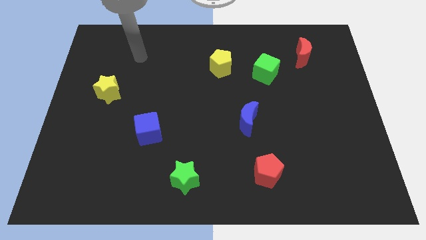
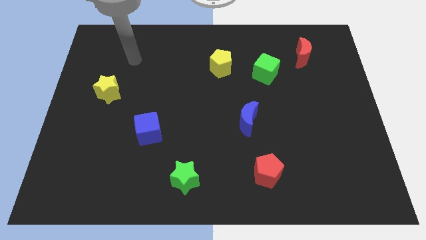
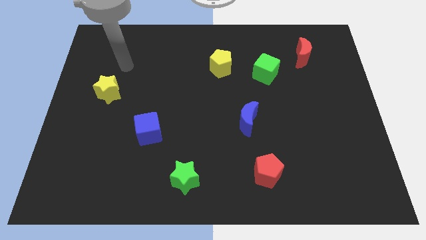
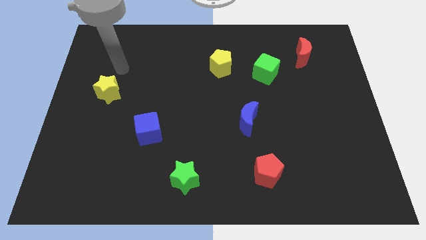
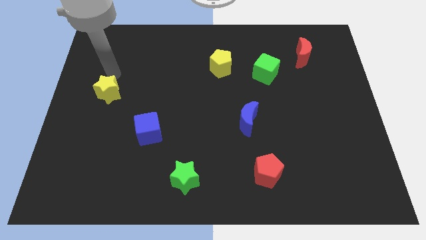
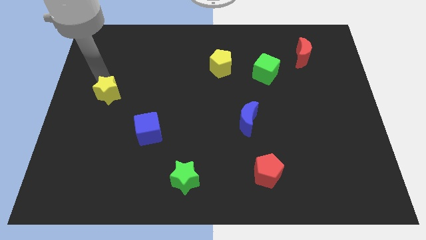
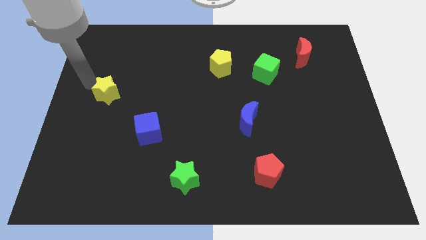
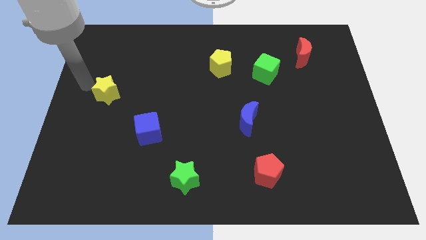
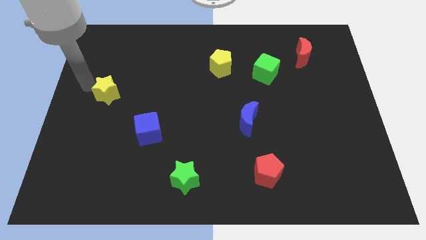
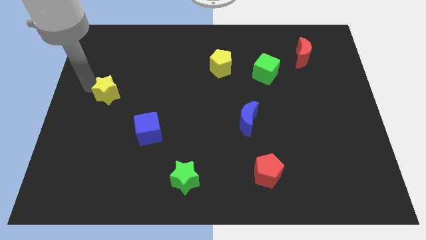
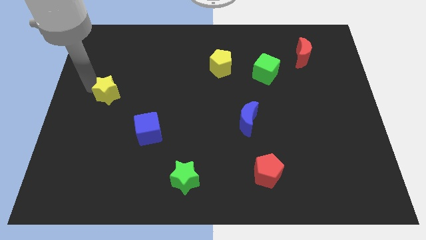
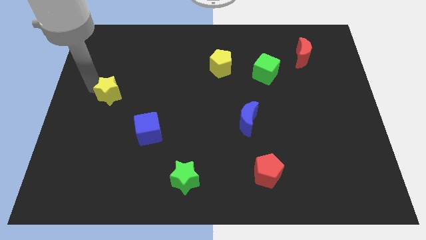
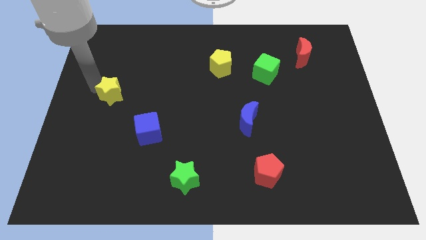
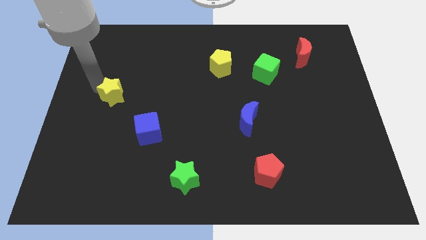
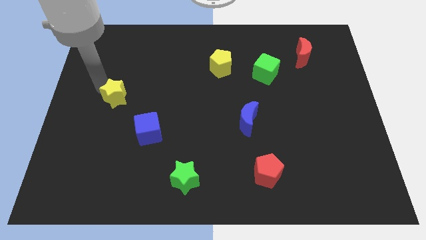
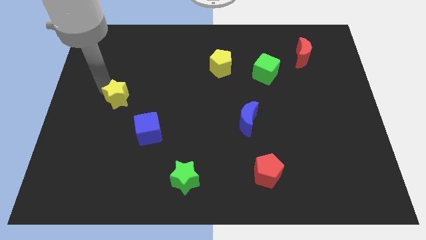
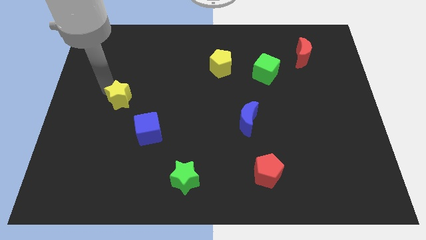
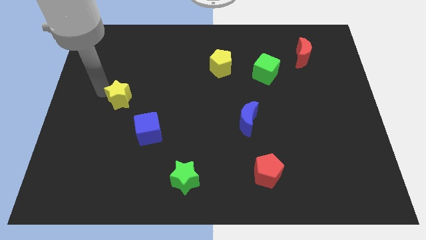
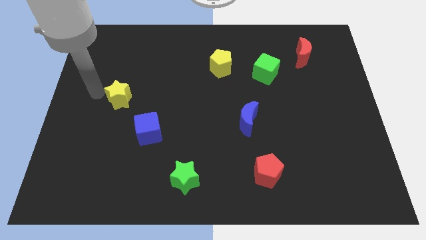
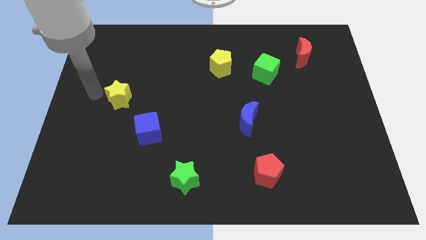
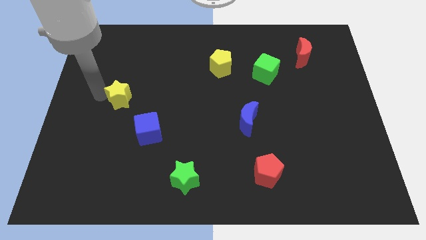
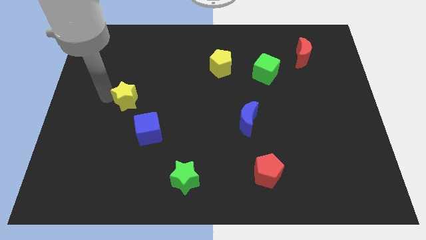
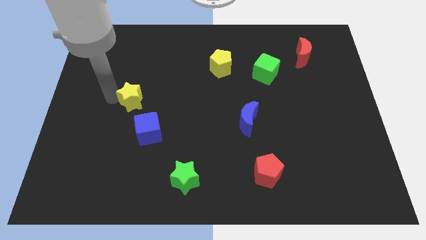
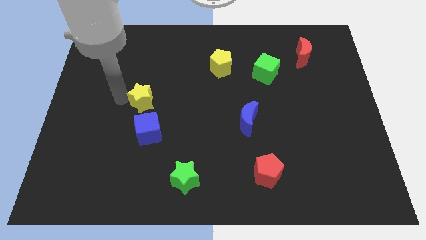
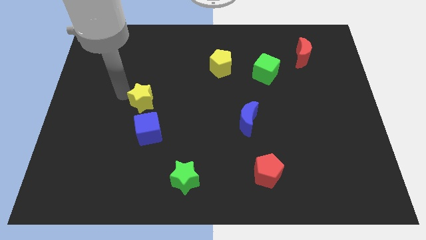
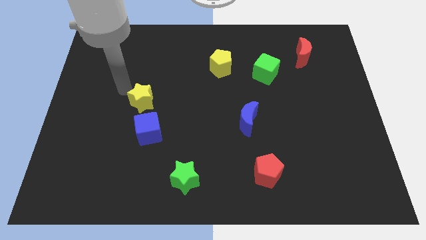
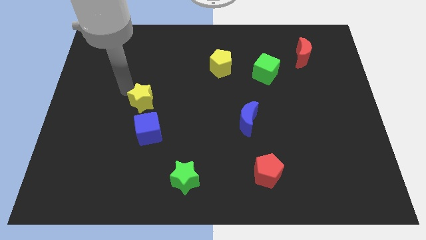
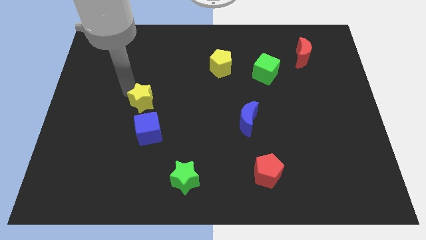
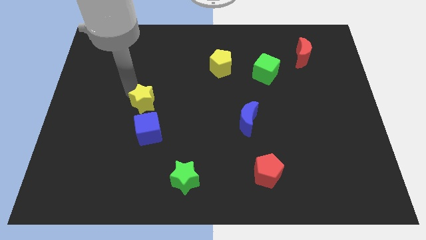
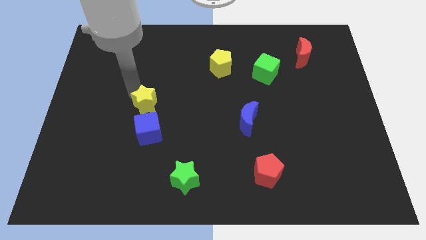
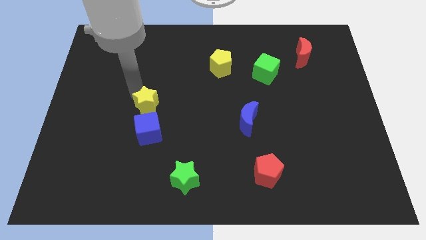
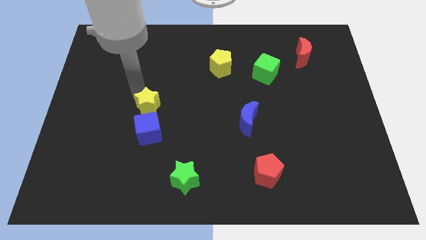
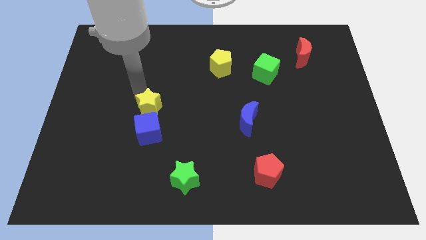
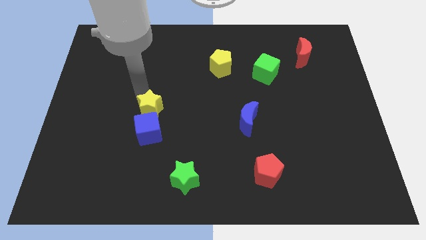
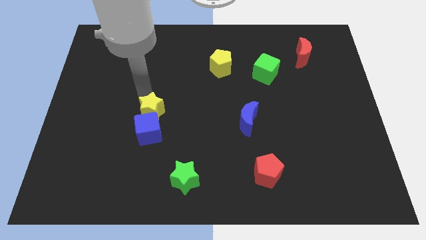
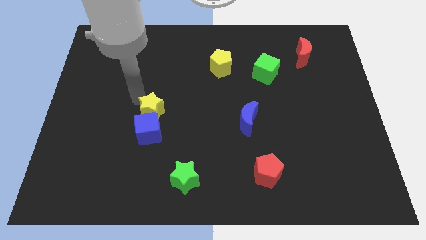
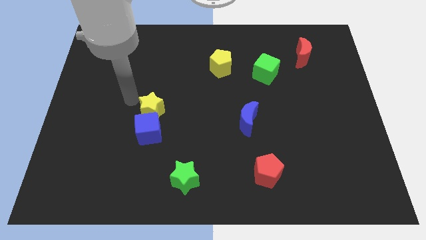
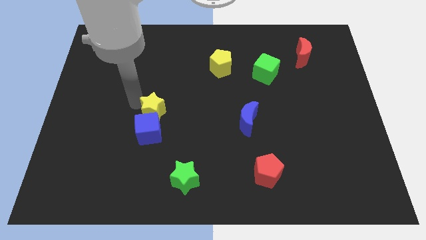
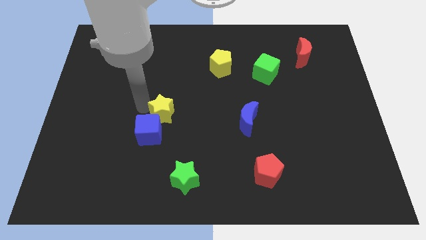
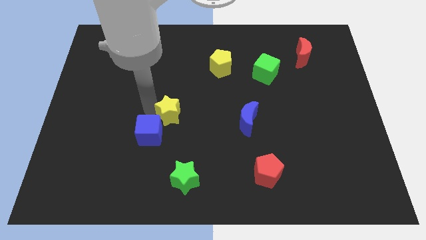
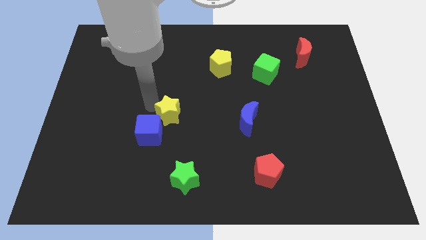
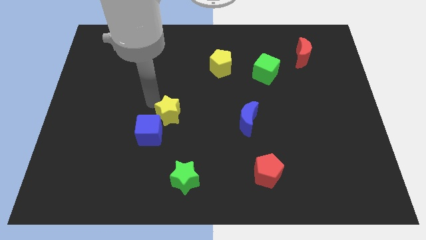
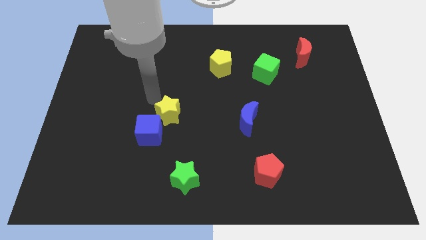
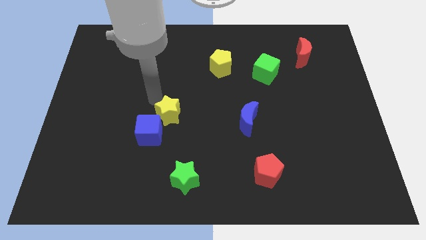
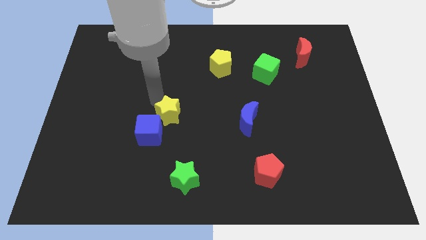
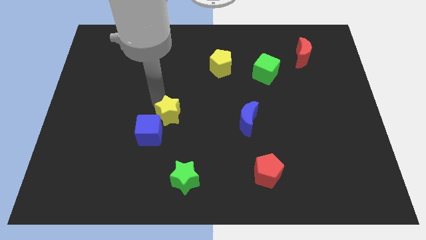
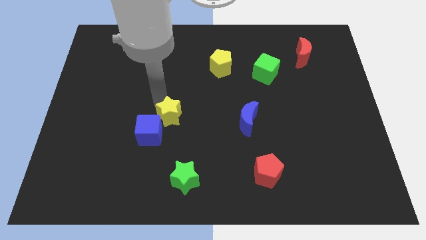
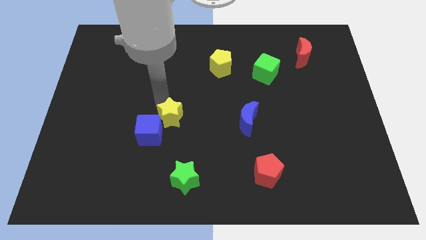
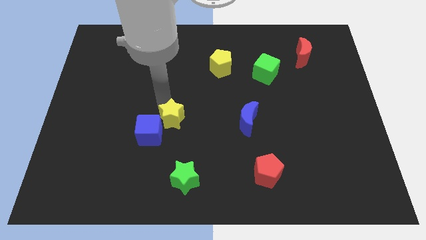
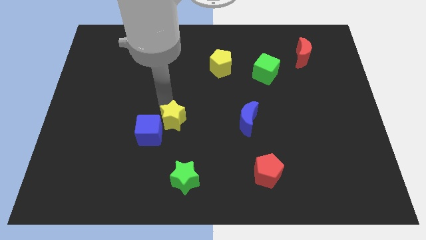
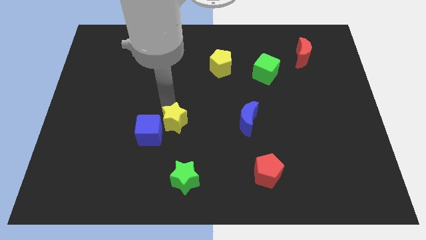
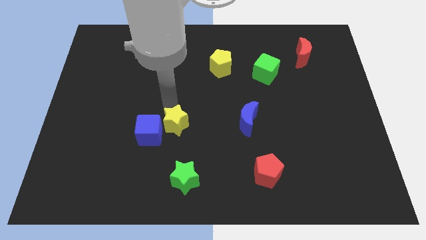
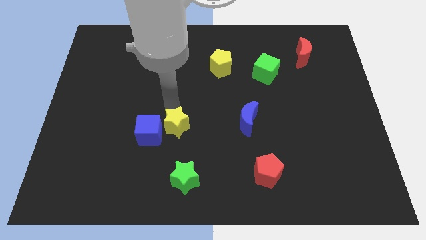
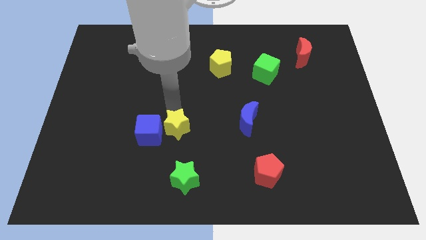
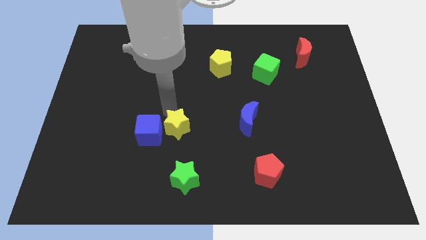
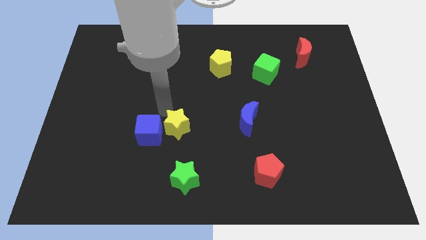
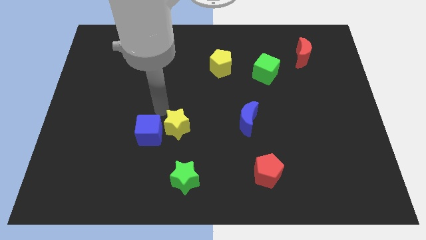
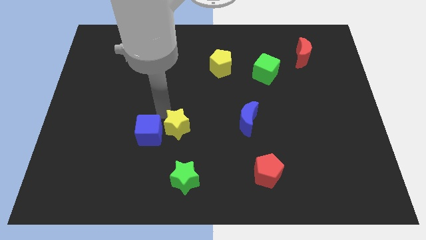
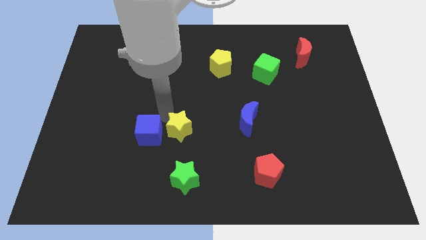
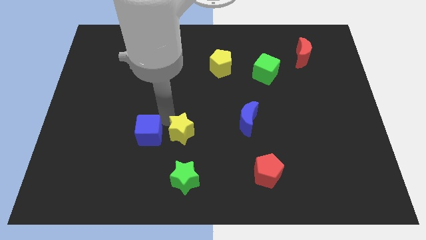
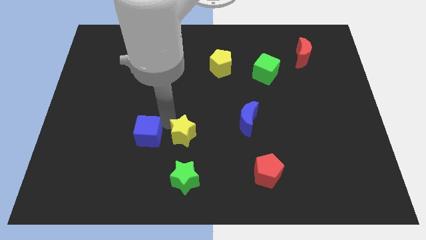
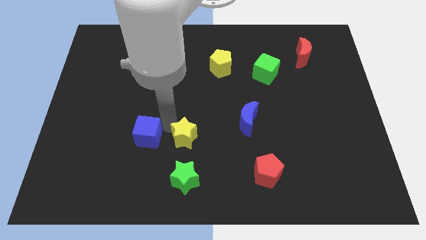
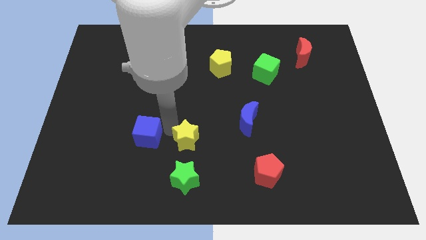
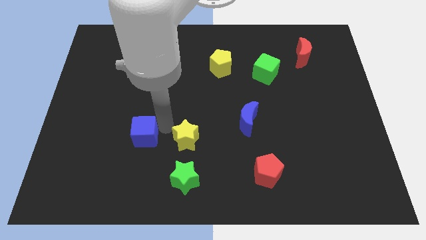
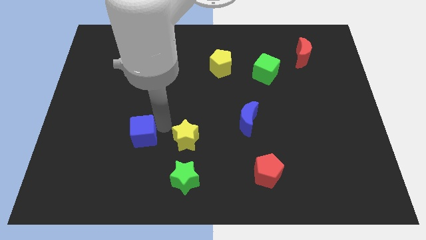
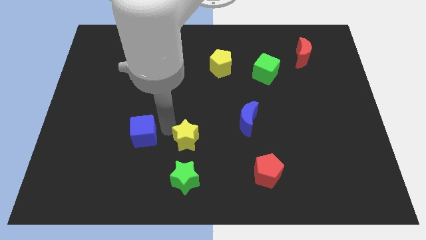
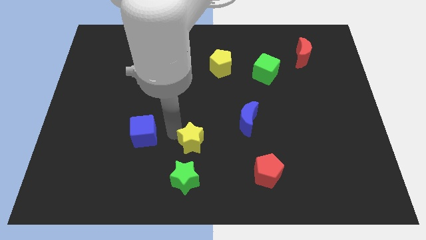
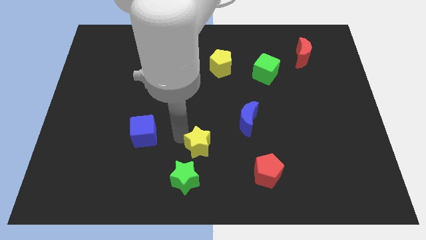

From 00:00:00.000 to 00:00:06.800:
push the yellow star diagonally up and to the right of the green star
